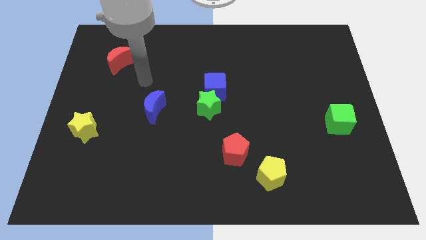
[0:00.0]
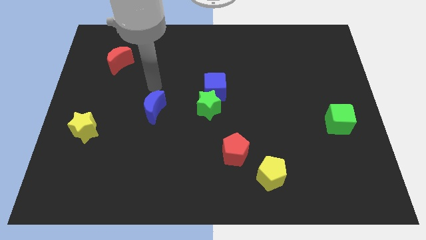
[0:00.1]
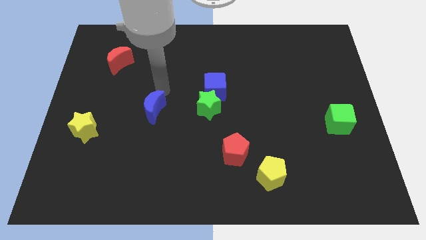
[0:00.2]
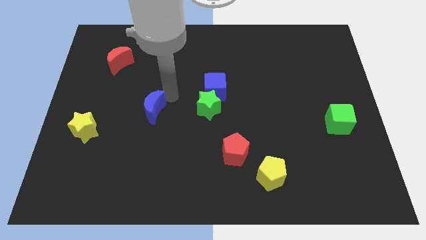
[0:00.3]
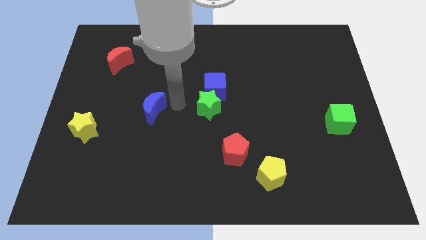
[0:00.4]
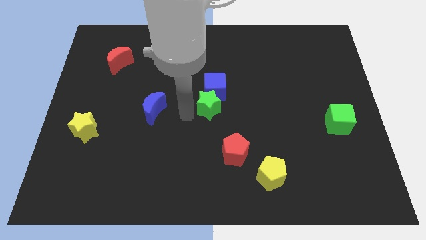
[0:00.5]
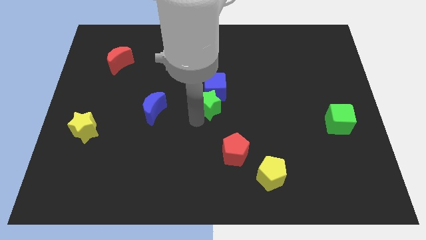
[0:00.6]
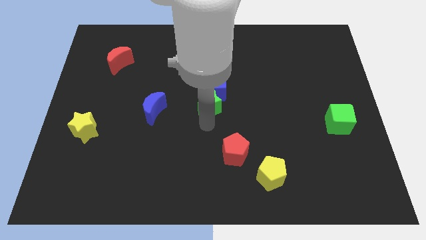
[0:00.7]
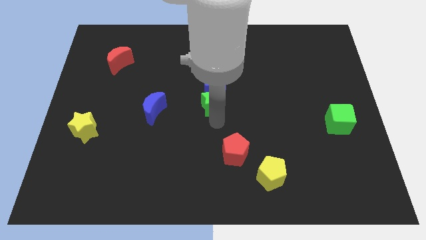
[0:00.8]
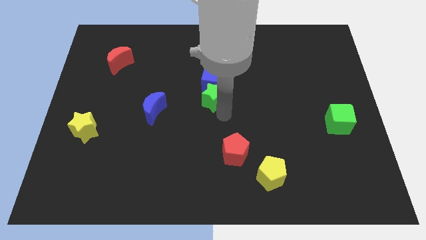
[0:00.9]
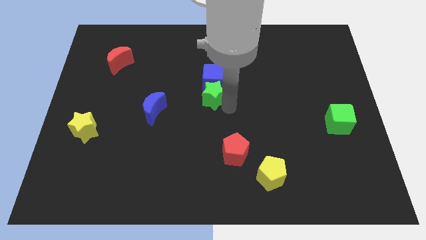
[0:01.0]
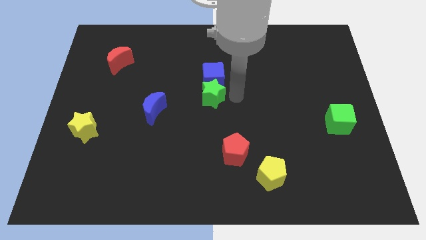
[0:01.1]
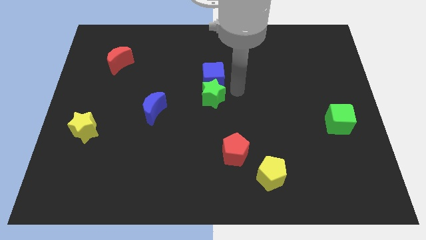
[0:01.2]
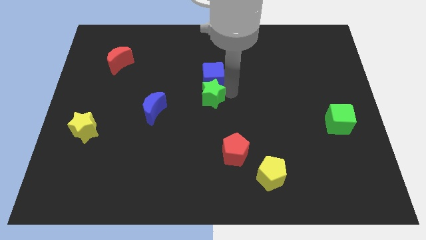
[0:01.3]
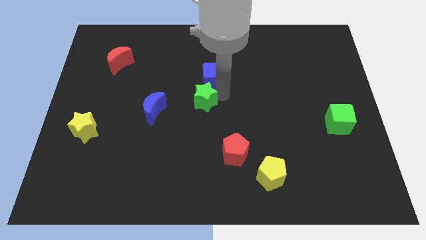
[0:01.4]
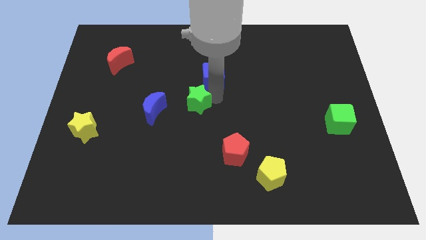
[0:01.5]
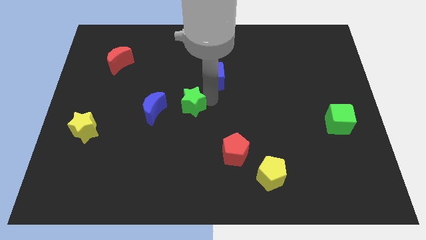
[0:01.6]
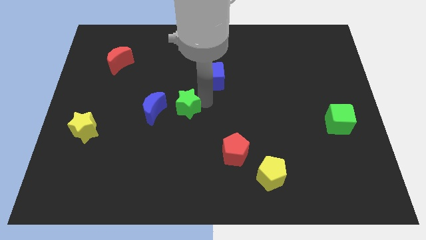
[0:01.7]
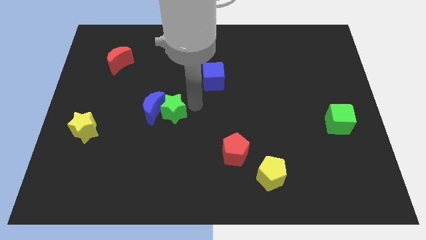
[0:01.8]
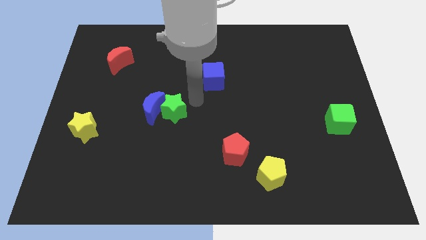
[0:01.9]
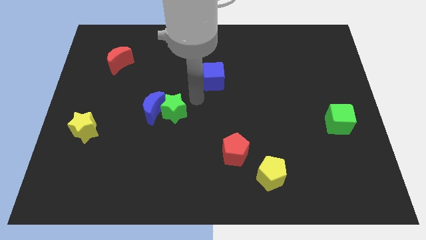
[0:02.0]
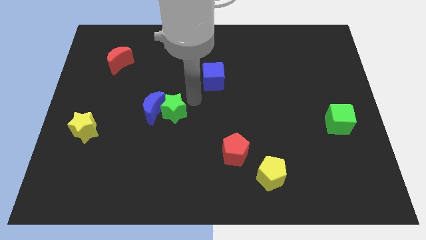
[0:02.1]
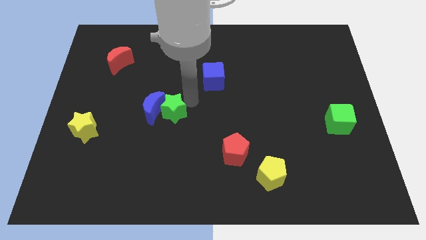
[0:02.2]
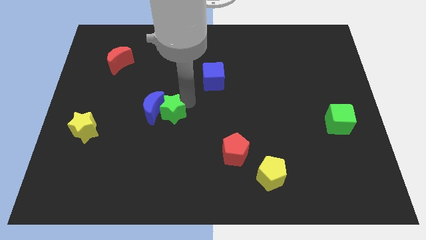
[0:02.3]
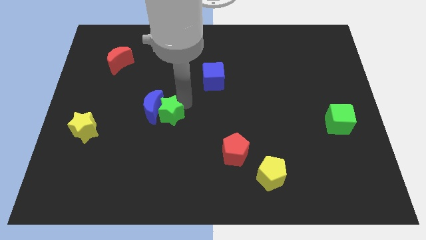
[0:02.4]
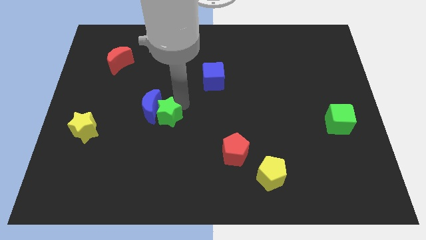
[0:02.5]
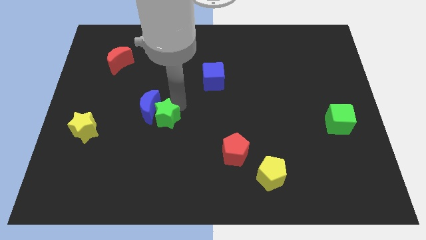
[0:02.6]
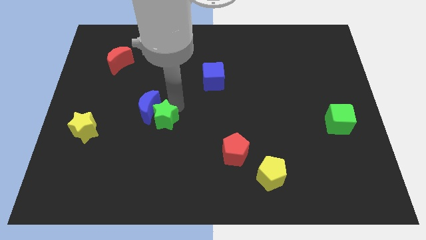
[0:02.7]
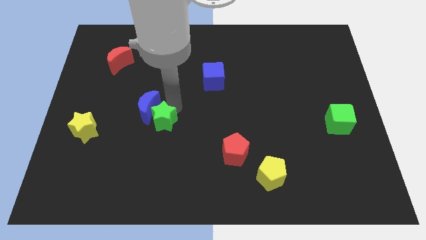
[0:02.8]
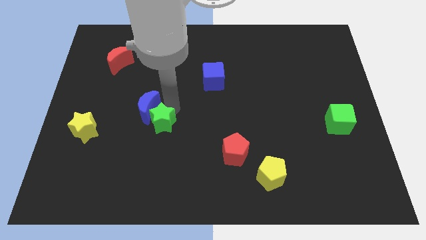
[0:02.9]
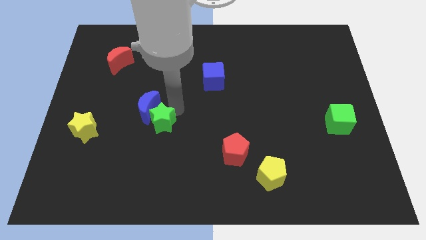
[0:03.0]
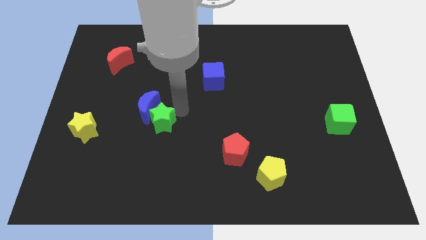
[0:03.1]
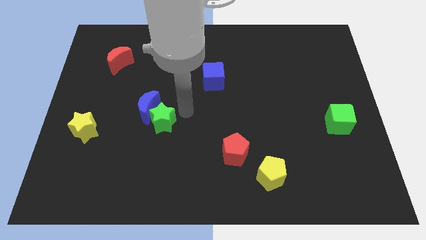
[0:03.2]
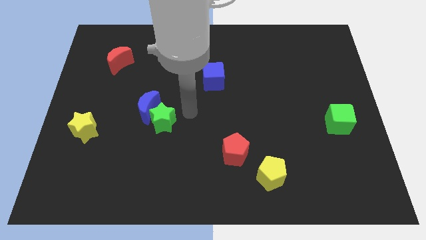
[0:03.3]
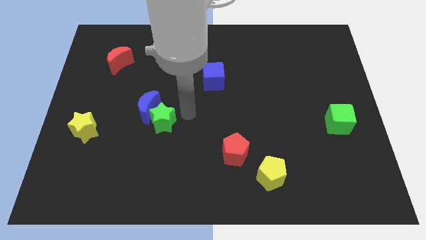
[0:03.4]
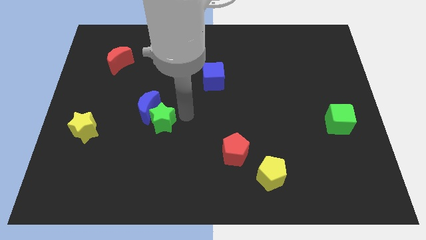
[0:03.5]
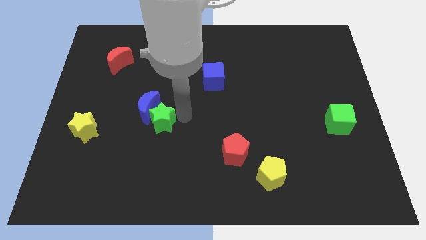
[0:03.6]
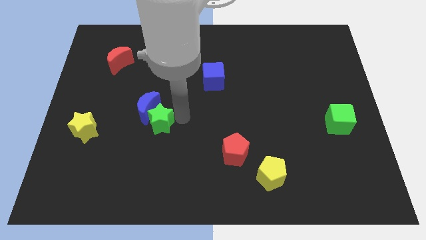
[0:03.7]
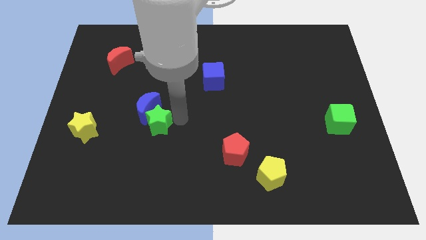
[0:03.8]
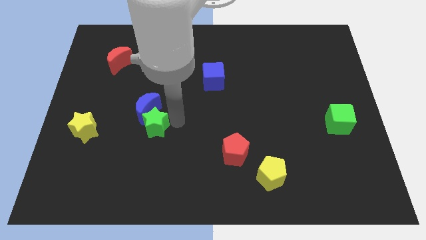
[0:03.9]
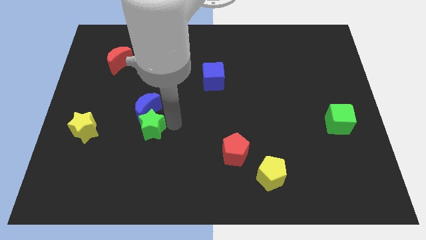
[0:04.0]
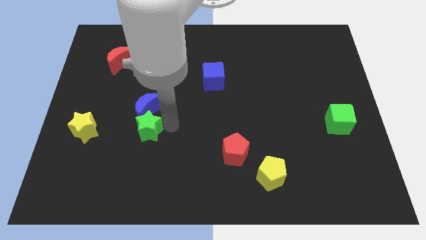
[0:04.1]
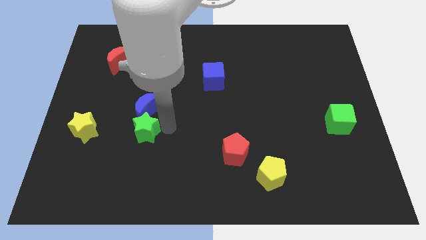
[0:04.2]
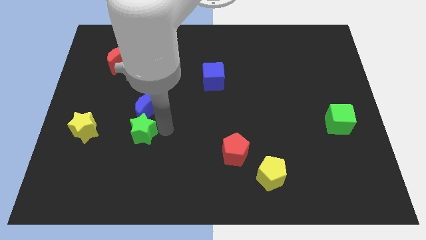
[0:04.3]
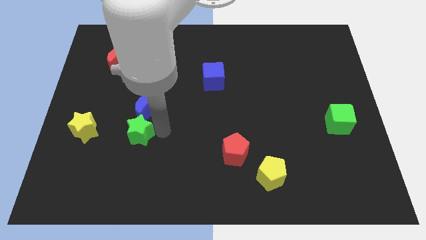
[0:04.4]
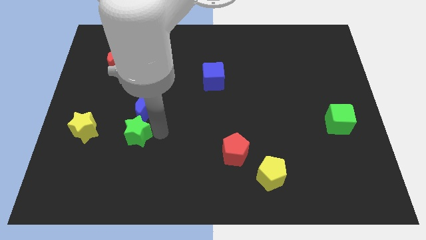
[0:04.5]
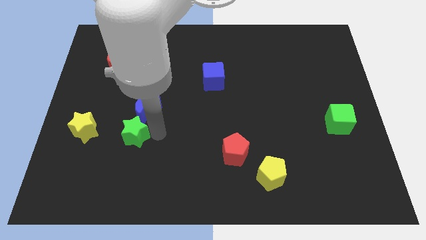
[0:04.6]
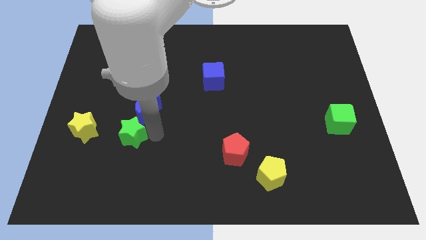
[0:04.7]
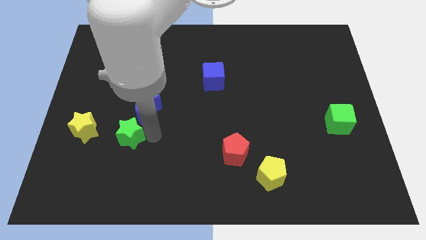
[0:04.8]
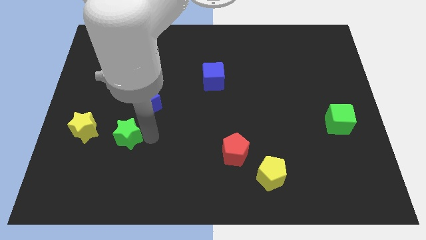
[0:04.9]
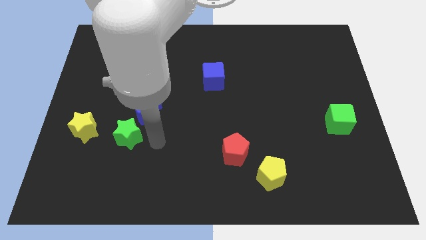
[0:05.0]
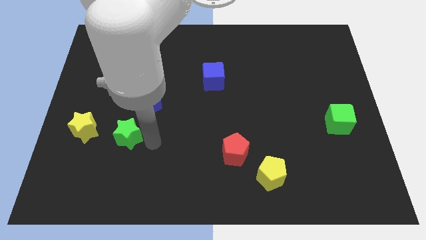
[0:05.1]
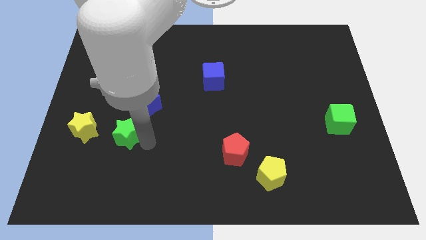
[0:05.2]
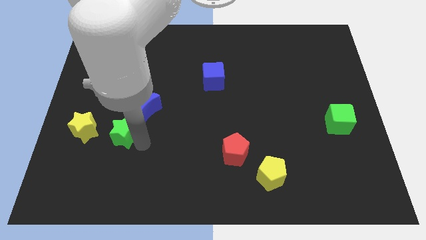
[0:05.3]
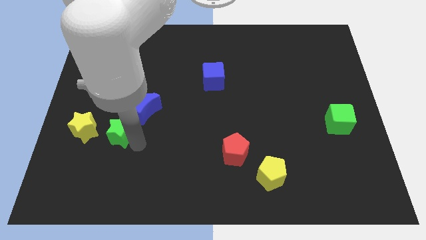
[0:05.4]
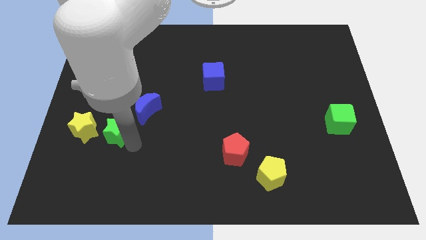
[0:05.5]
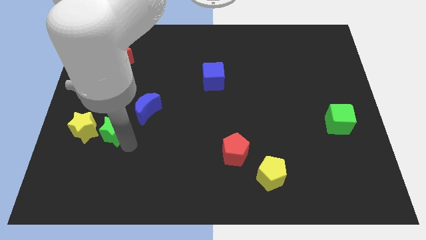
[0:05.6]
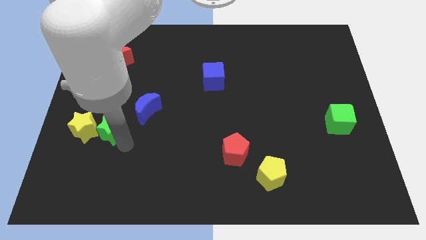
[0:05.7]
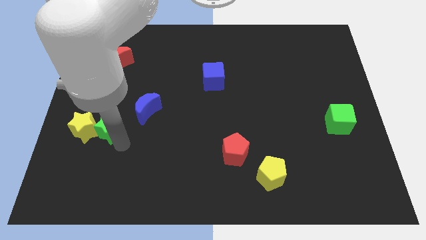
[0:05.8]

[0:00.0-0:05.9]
move the green star close to the yellow star
